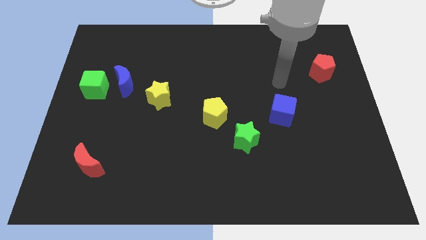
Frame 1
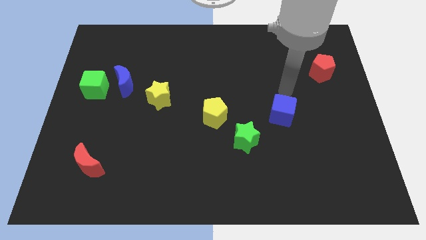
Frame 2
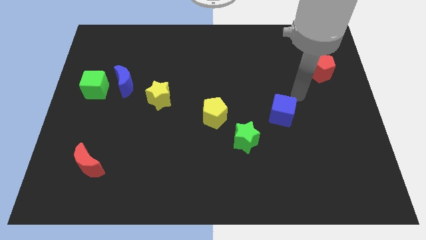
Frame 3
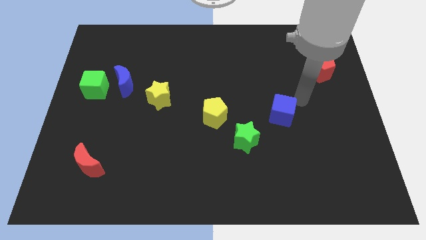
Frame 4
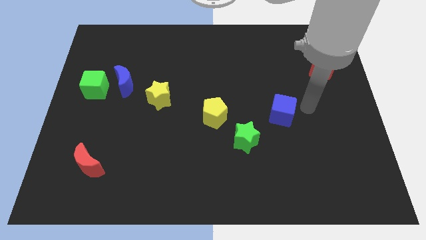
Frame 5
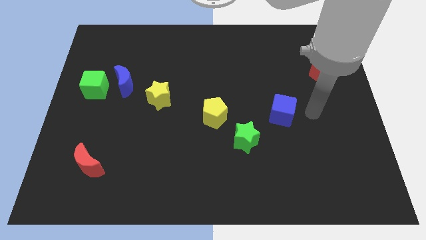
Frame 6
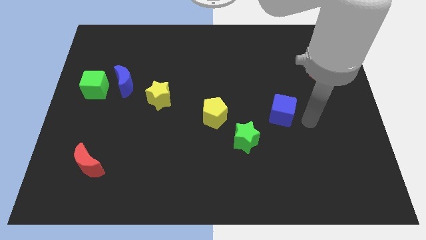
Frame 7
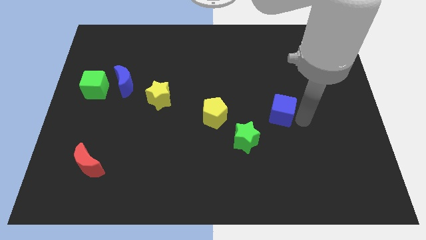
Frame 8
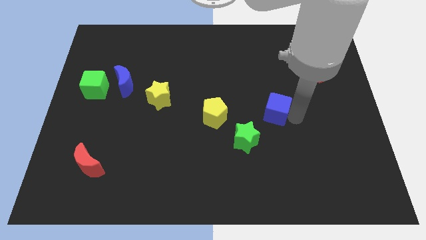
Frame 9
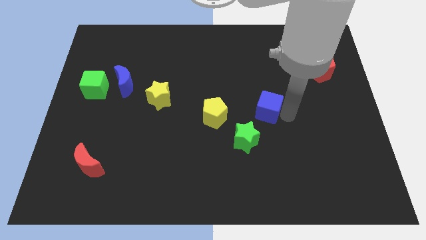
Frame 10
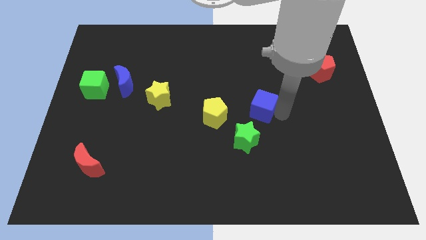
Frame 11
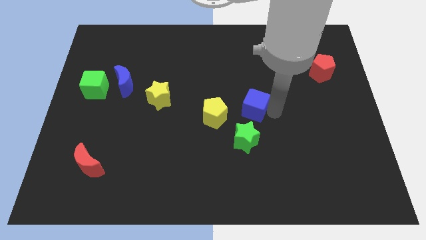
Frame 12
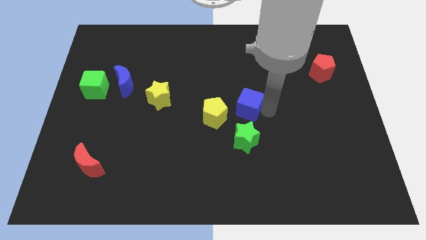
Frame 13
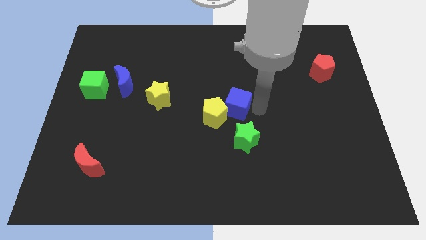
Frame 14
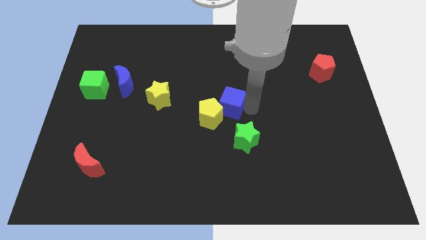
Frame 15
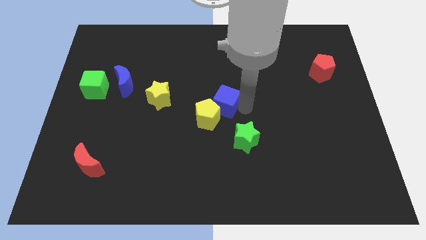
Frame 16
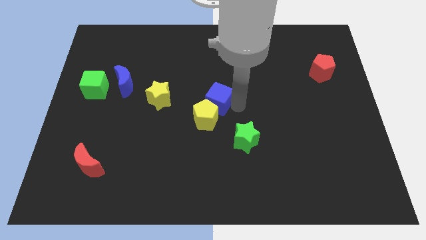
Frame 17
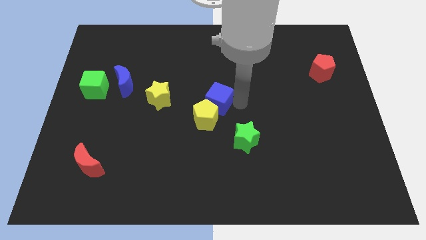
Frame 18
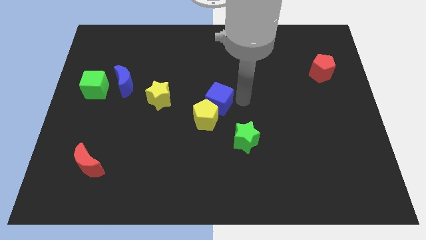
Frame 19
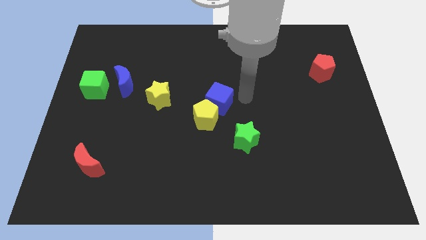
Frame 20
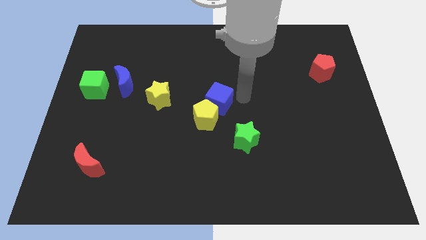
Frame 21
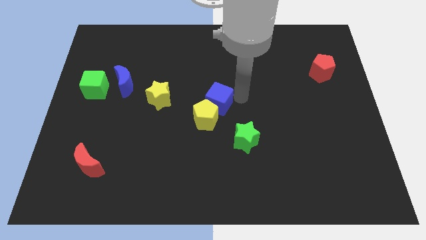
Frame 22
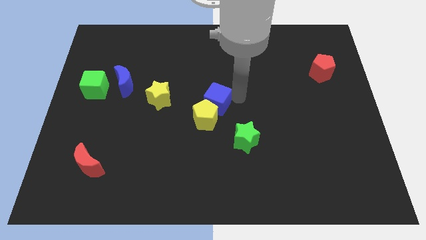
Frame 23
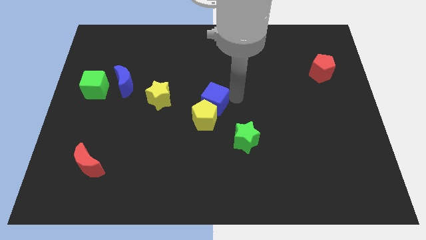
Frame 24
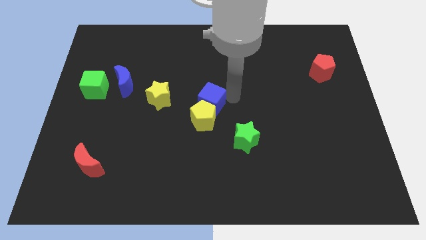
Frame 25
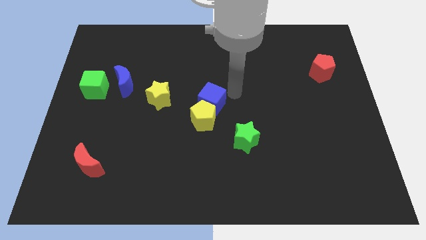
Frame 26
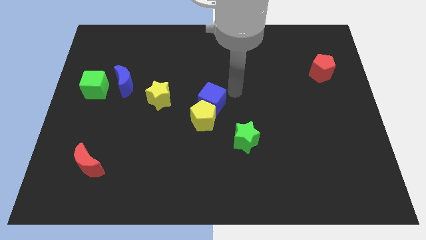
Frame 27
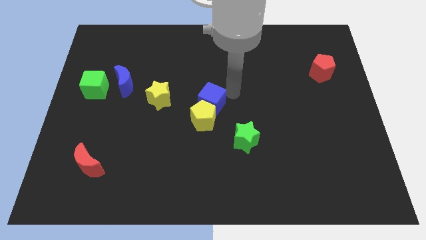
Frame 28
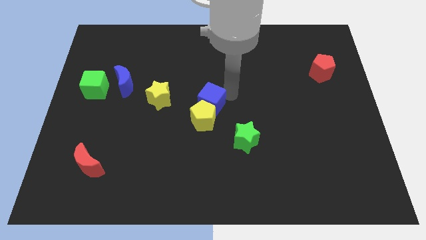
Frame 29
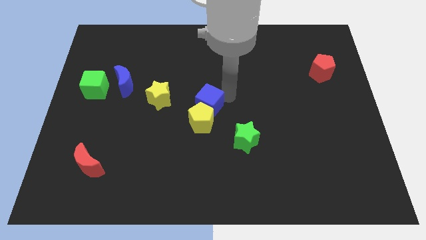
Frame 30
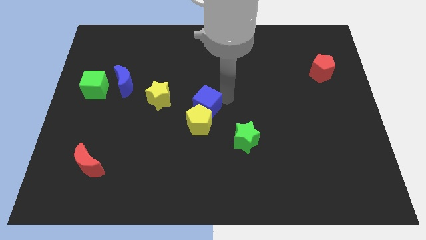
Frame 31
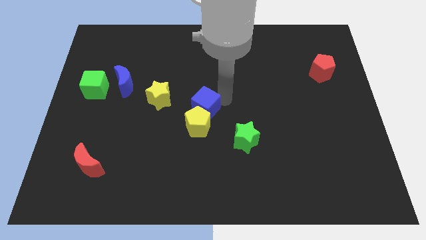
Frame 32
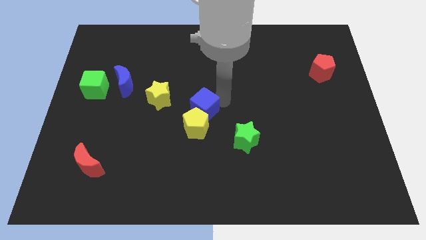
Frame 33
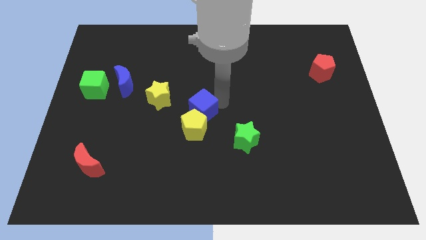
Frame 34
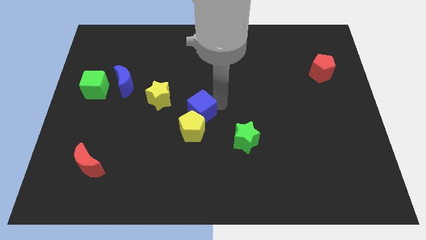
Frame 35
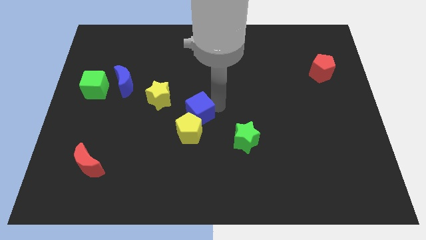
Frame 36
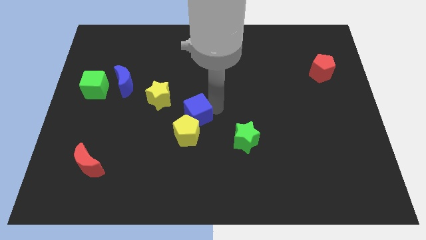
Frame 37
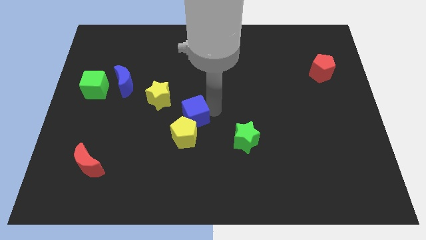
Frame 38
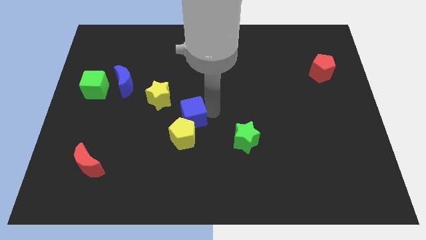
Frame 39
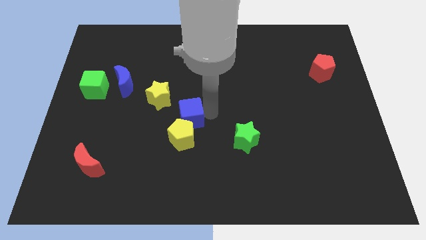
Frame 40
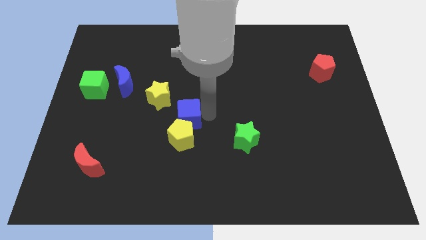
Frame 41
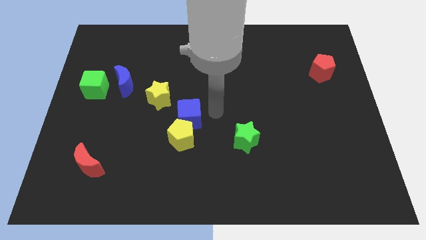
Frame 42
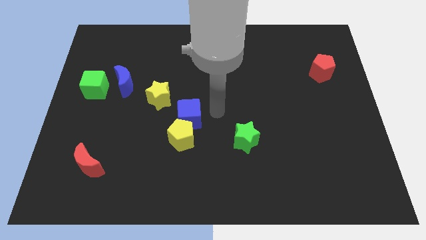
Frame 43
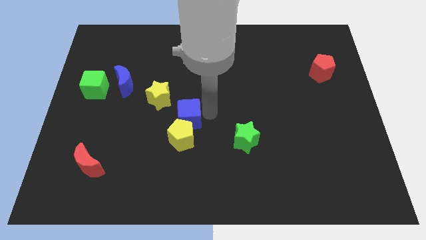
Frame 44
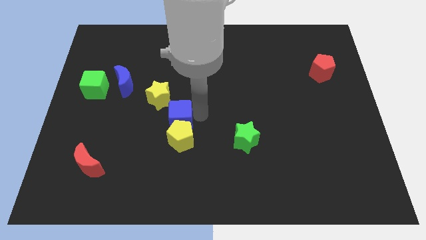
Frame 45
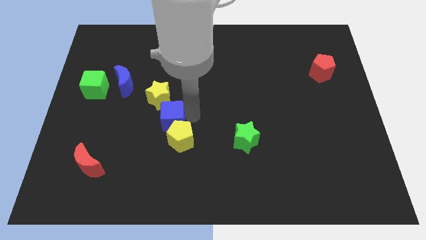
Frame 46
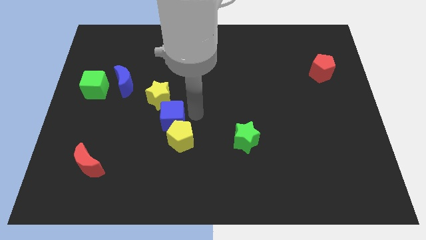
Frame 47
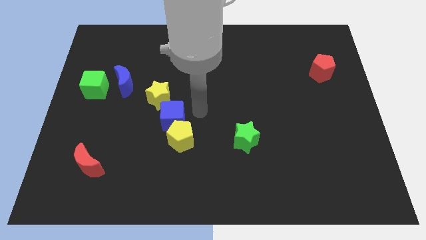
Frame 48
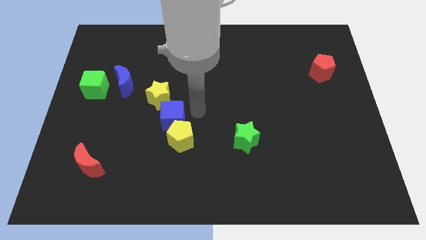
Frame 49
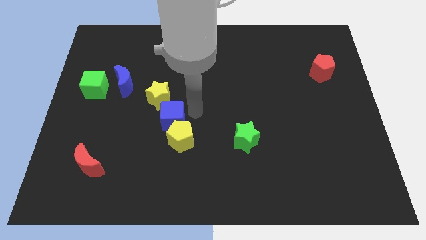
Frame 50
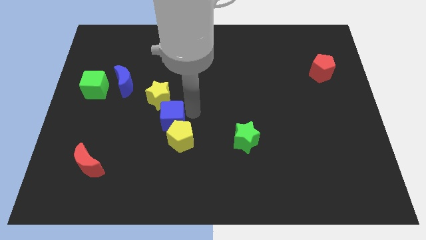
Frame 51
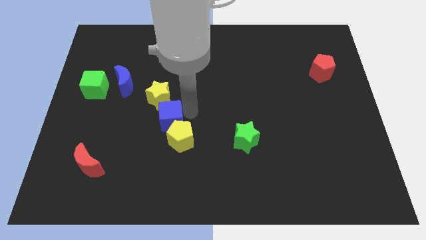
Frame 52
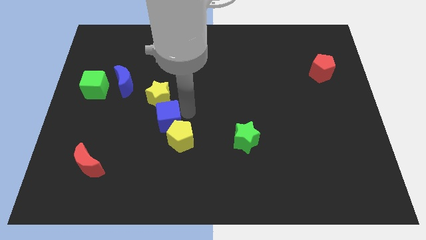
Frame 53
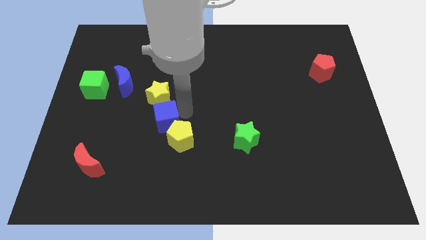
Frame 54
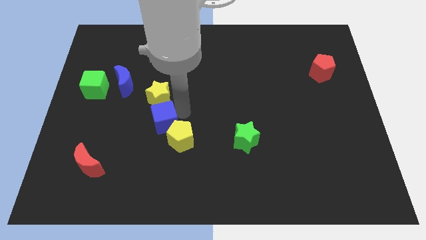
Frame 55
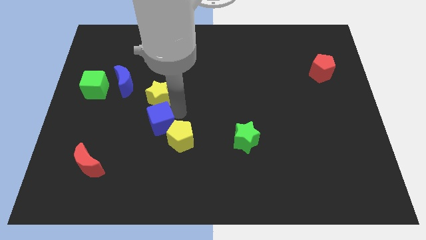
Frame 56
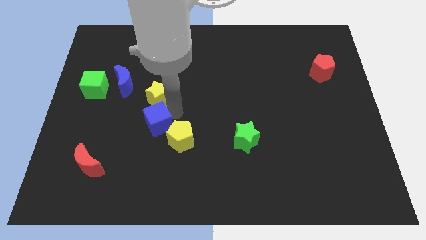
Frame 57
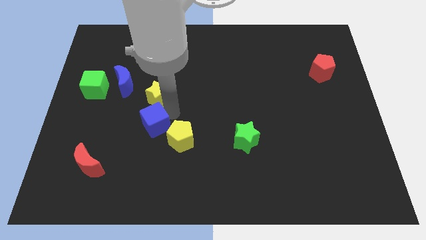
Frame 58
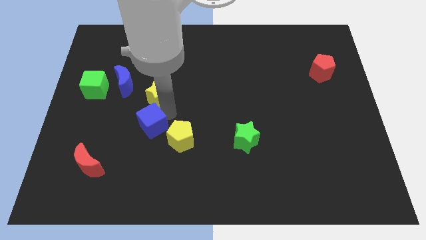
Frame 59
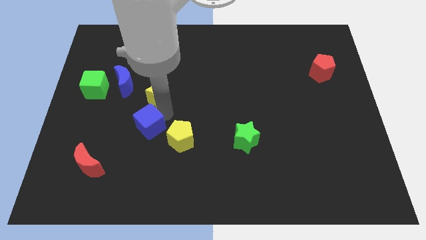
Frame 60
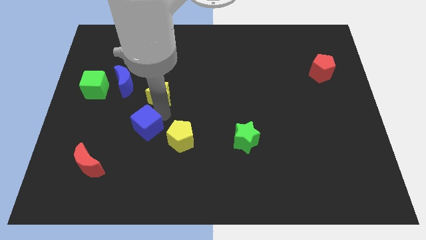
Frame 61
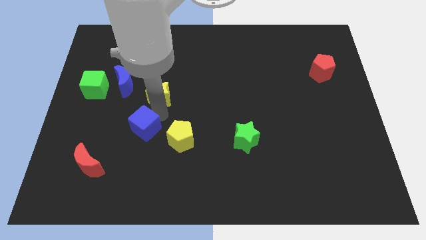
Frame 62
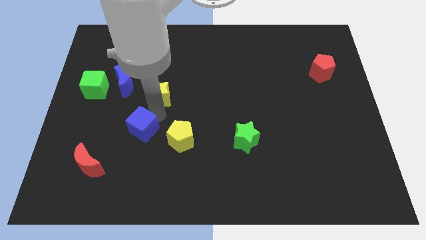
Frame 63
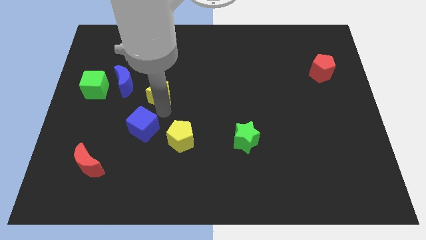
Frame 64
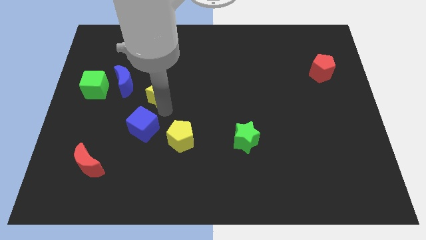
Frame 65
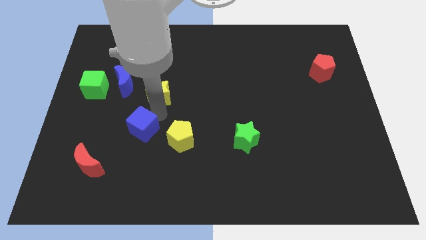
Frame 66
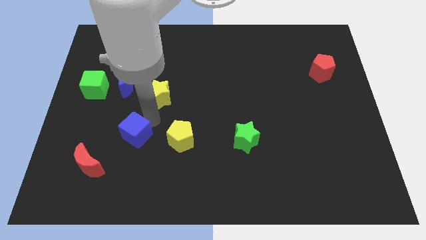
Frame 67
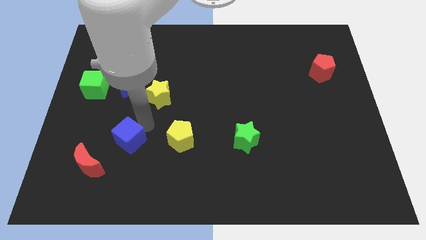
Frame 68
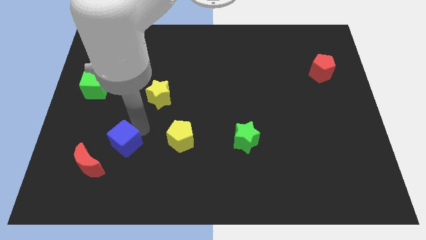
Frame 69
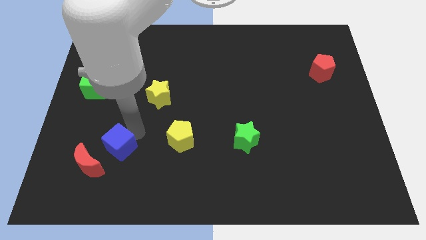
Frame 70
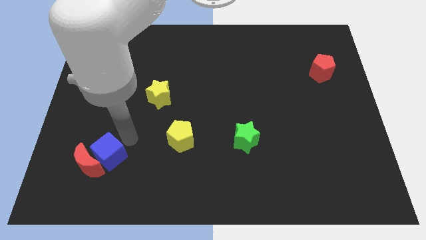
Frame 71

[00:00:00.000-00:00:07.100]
slide the blue cube to the red moon

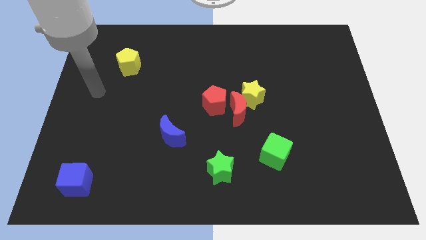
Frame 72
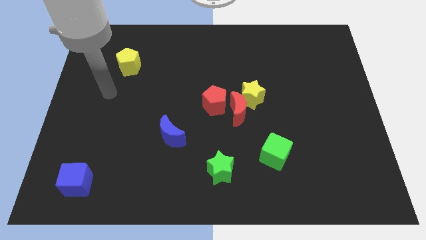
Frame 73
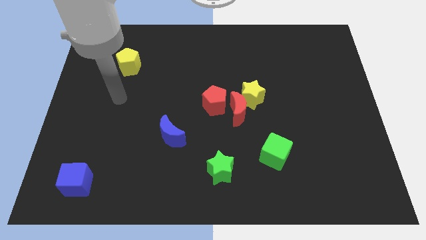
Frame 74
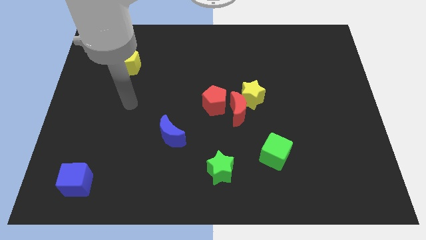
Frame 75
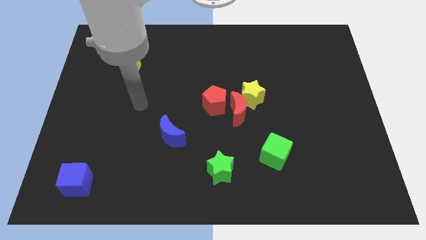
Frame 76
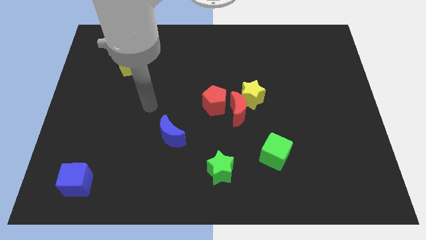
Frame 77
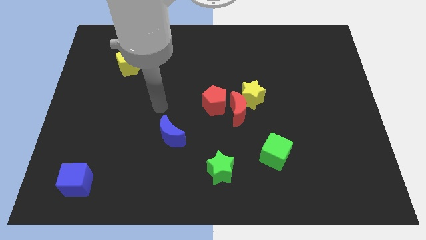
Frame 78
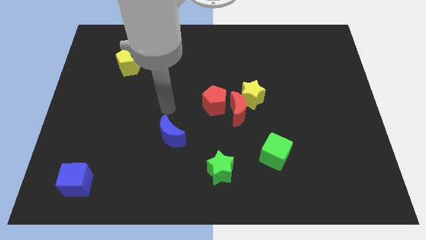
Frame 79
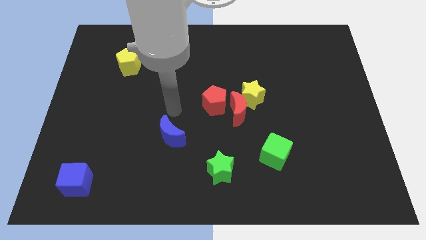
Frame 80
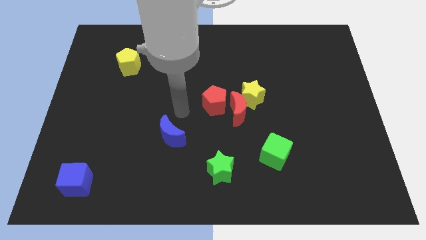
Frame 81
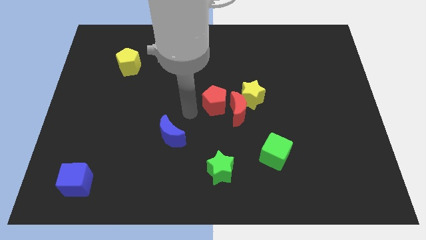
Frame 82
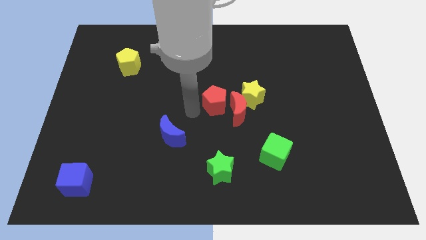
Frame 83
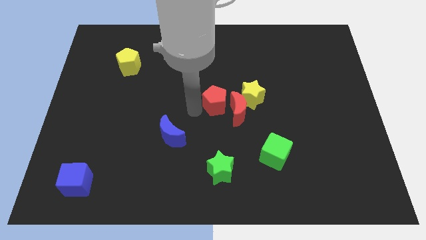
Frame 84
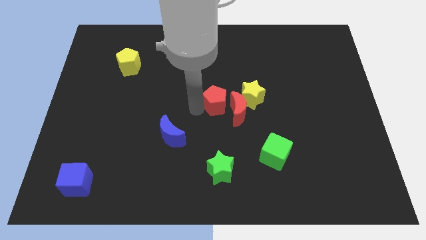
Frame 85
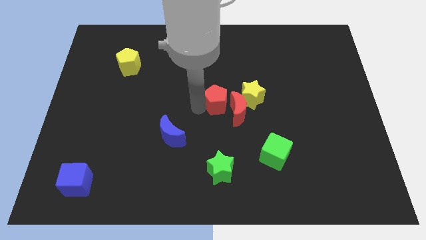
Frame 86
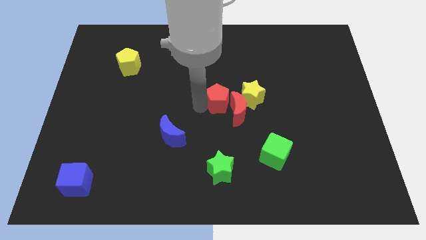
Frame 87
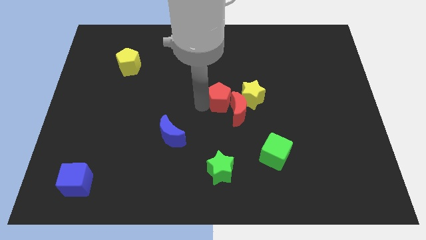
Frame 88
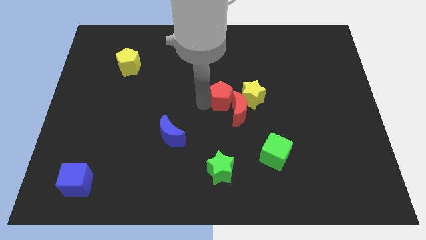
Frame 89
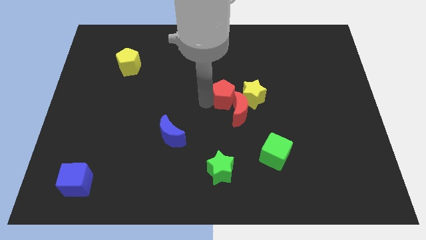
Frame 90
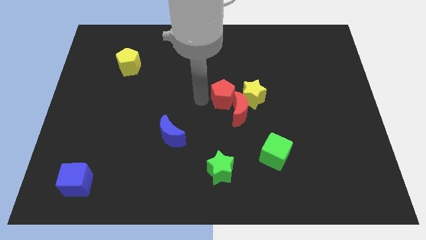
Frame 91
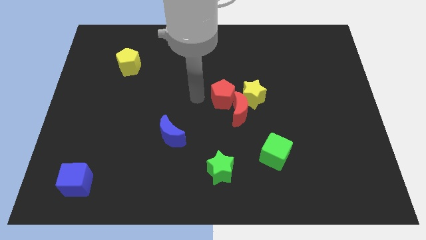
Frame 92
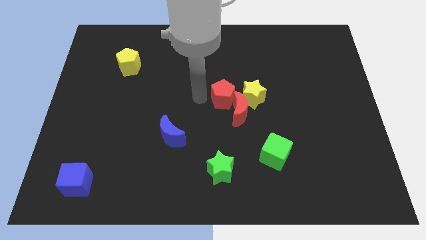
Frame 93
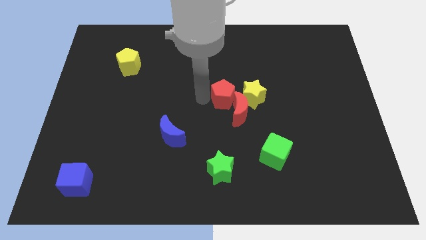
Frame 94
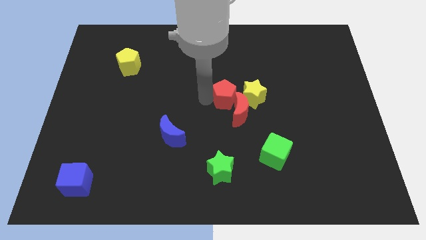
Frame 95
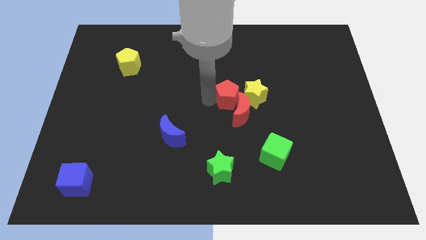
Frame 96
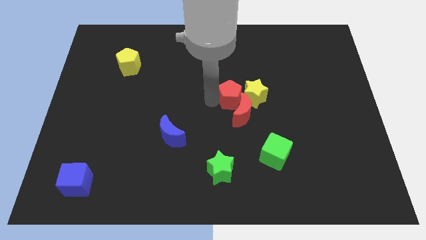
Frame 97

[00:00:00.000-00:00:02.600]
slide the red pentagon next to the yellow star
